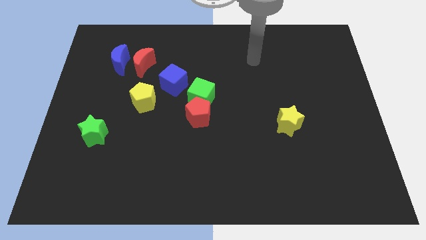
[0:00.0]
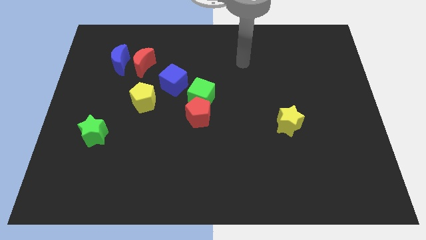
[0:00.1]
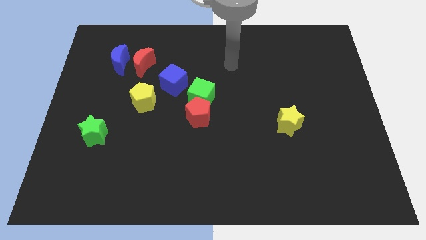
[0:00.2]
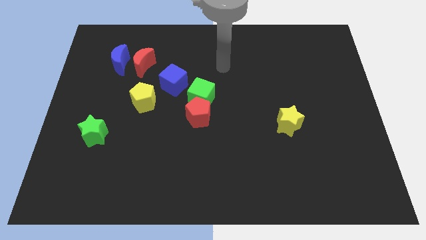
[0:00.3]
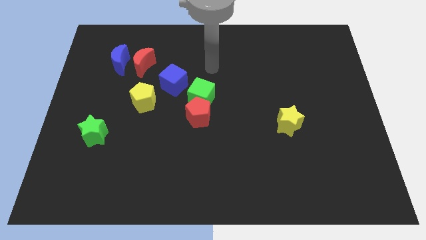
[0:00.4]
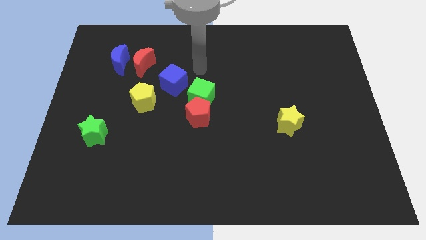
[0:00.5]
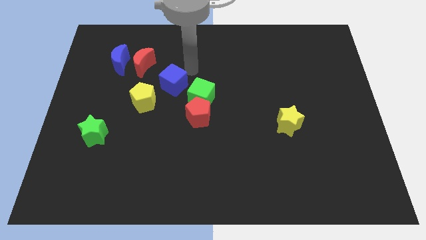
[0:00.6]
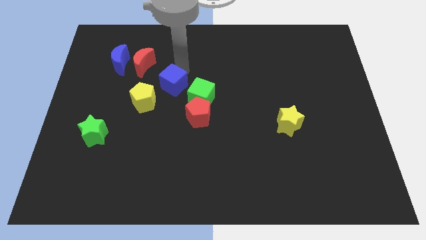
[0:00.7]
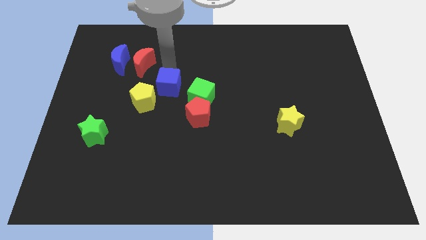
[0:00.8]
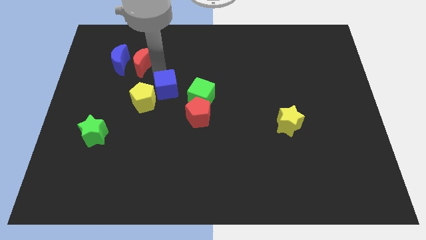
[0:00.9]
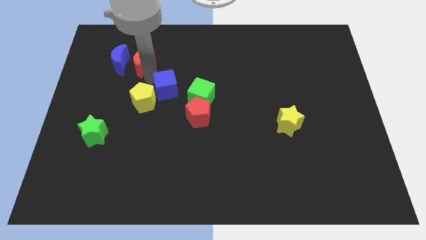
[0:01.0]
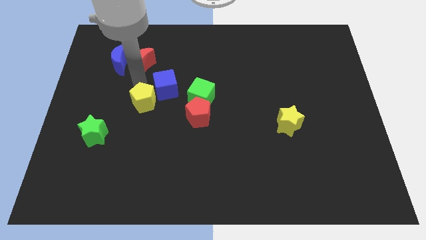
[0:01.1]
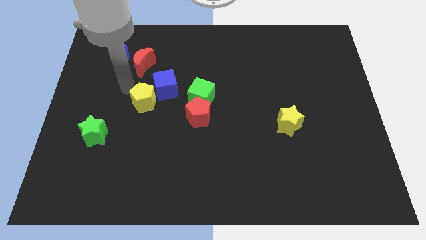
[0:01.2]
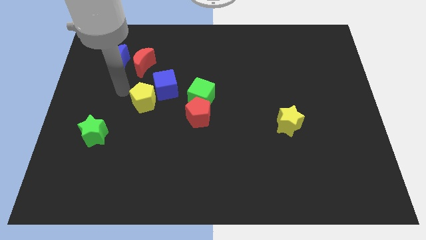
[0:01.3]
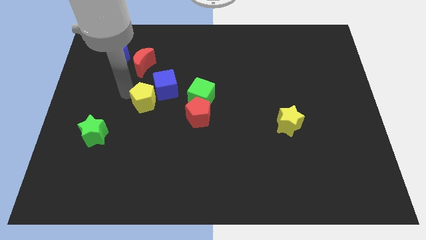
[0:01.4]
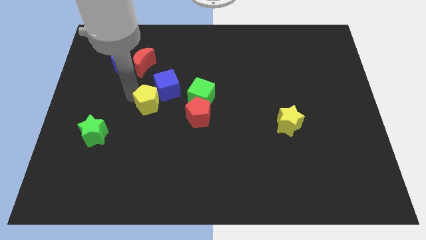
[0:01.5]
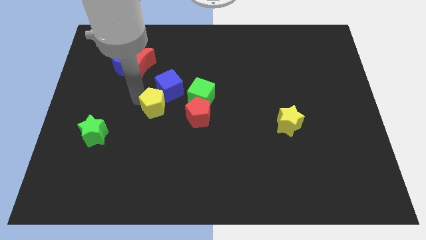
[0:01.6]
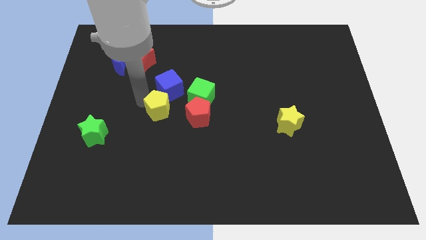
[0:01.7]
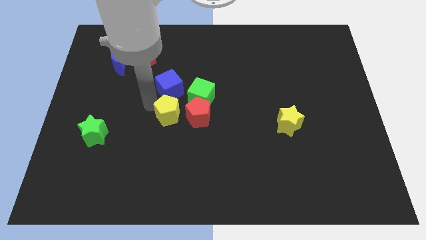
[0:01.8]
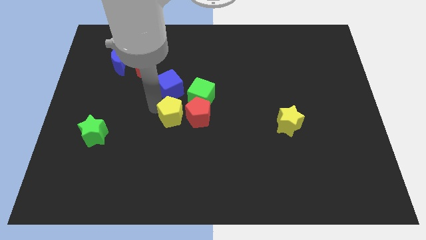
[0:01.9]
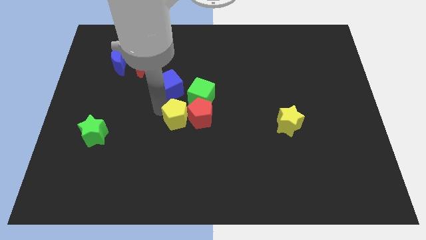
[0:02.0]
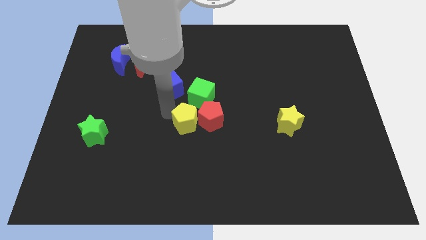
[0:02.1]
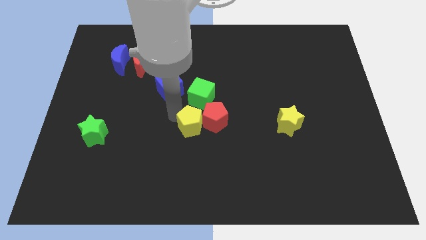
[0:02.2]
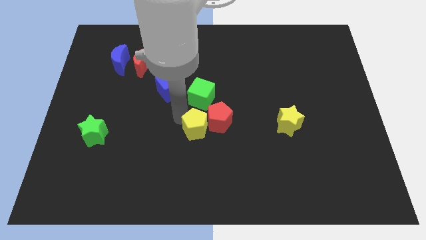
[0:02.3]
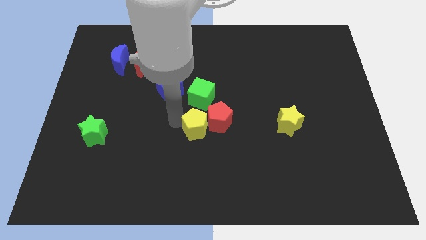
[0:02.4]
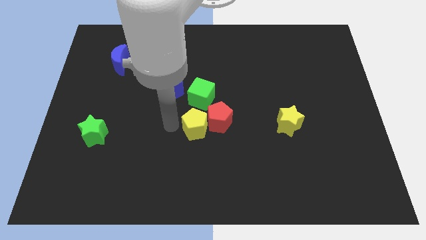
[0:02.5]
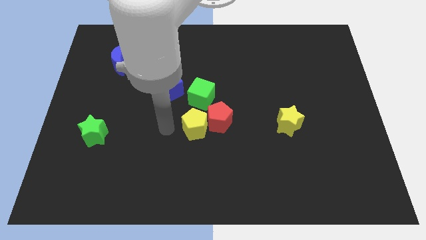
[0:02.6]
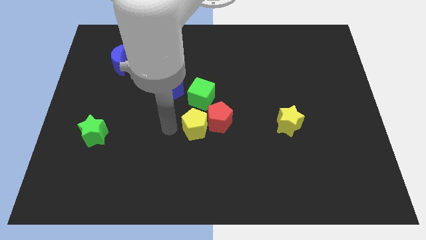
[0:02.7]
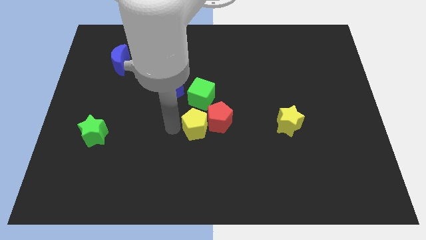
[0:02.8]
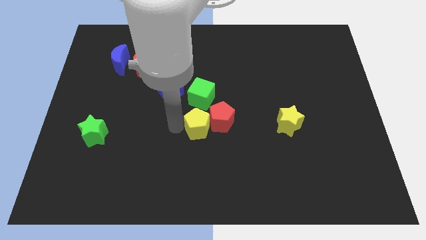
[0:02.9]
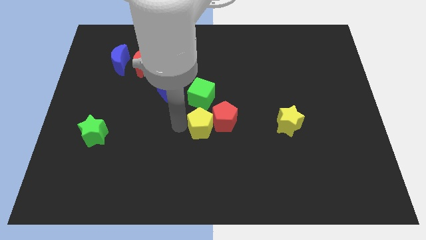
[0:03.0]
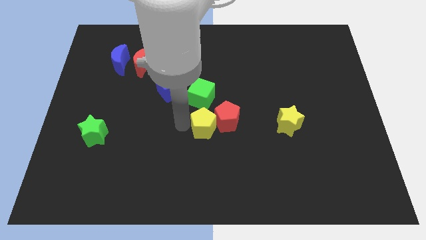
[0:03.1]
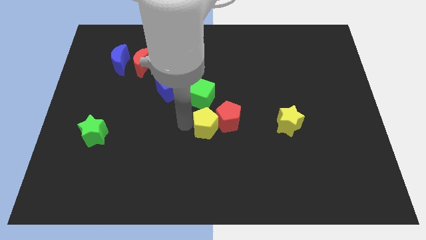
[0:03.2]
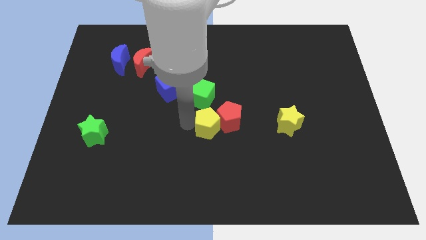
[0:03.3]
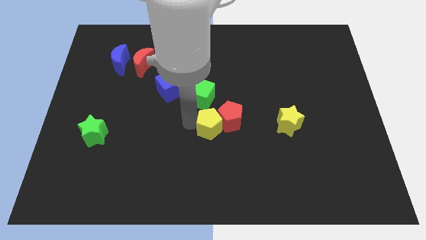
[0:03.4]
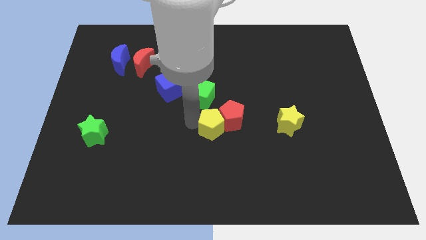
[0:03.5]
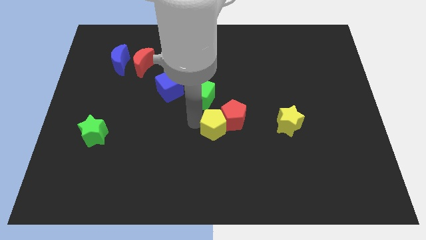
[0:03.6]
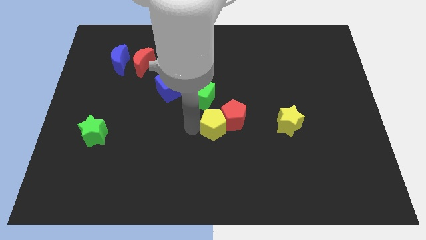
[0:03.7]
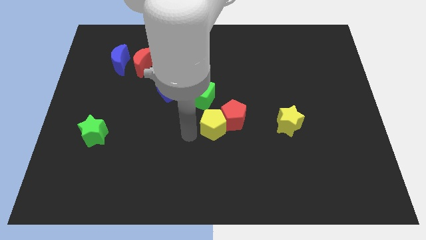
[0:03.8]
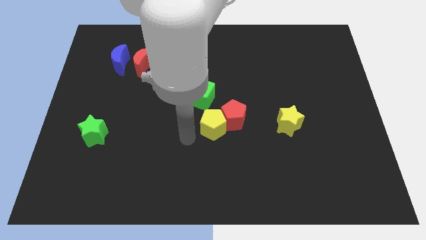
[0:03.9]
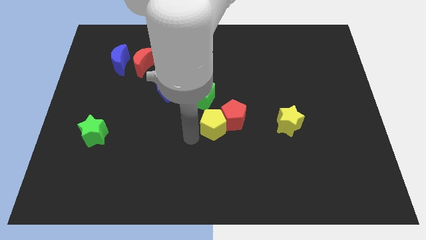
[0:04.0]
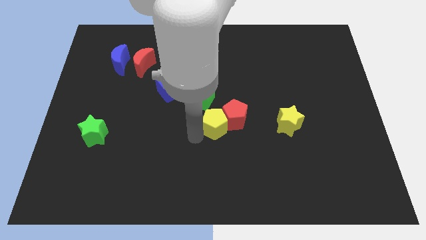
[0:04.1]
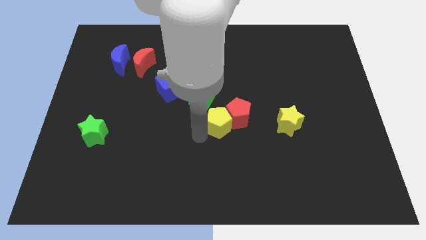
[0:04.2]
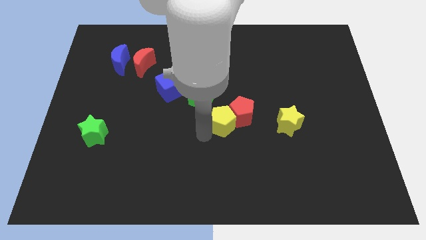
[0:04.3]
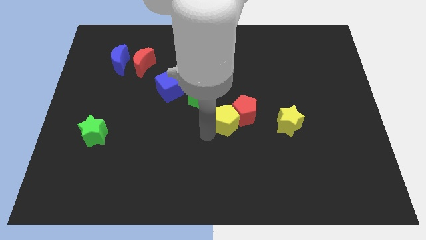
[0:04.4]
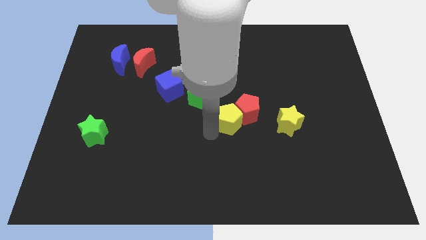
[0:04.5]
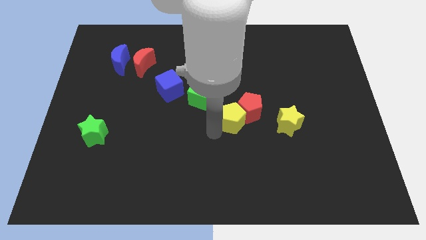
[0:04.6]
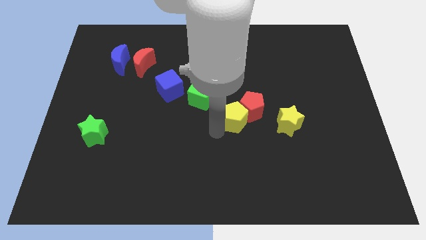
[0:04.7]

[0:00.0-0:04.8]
move the yellow pentagon to the right

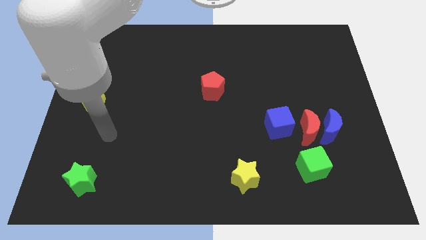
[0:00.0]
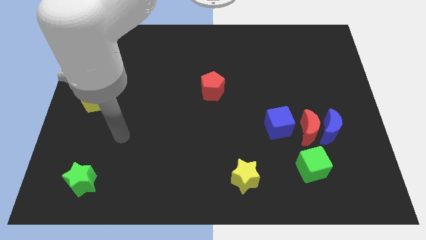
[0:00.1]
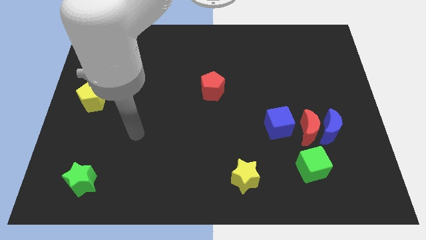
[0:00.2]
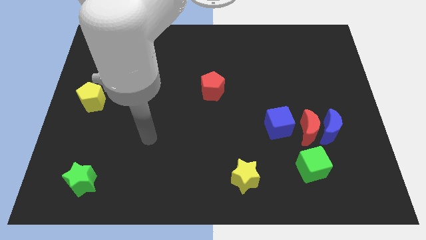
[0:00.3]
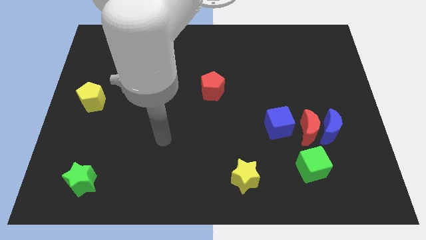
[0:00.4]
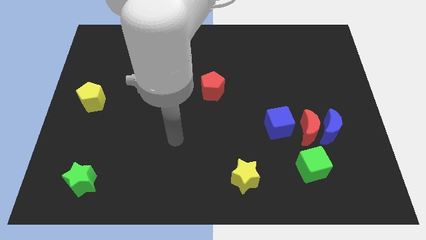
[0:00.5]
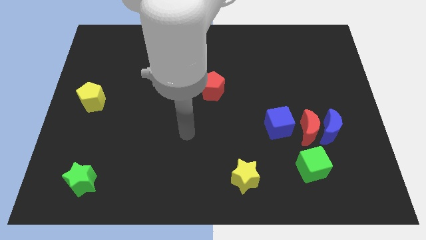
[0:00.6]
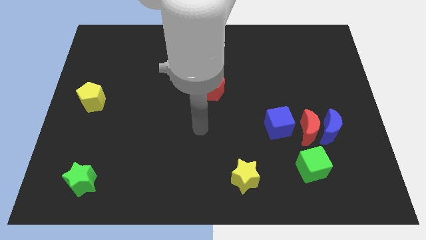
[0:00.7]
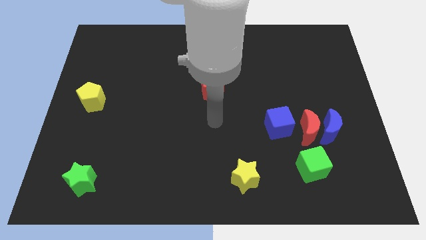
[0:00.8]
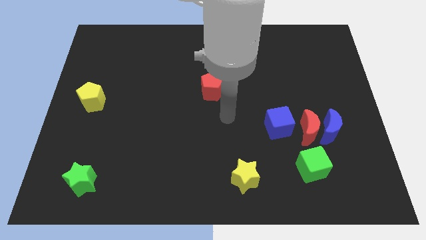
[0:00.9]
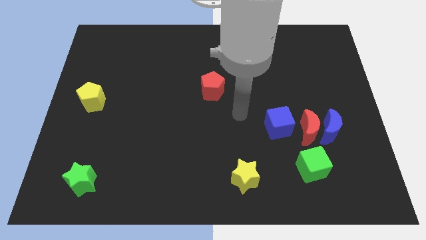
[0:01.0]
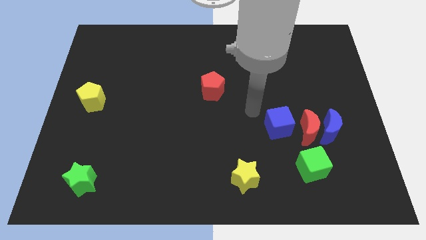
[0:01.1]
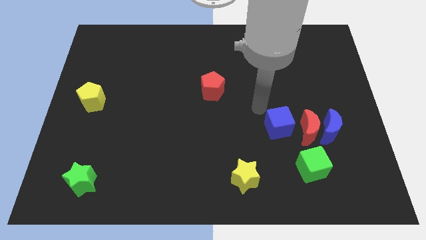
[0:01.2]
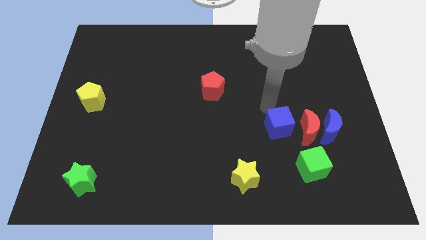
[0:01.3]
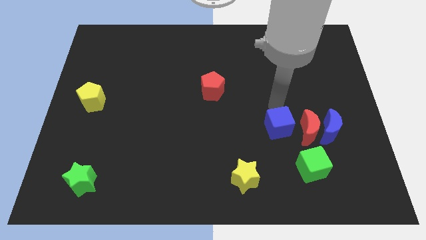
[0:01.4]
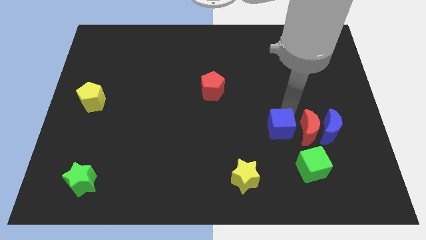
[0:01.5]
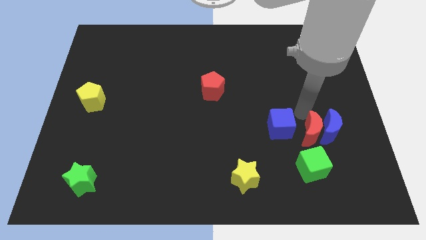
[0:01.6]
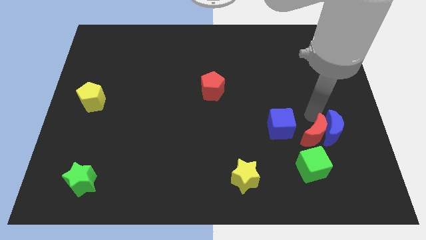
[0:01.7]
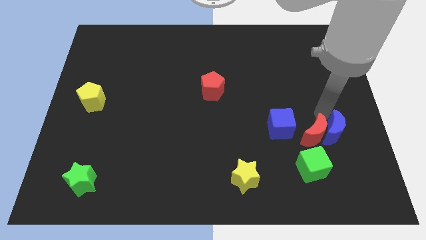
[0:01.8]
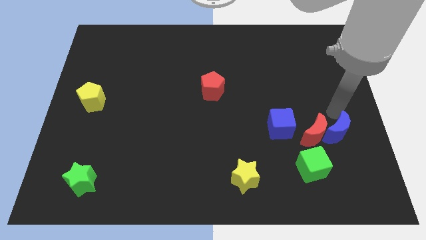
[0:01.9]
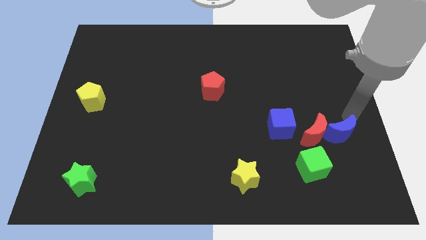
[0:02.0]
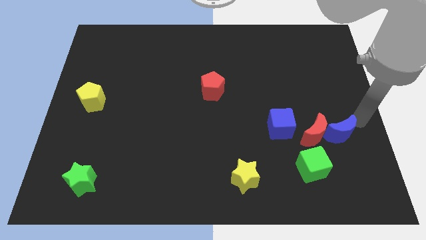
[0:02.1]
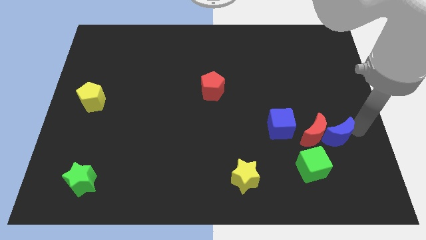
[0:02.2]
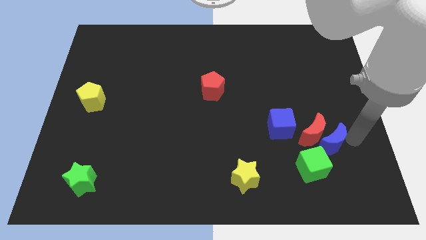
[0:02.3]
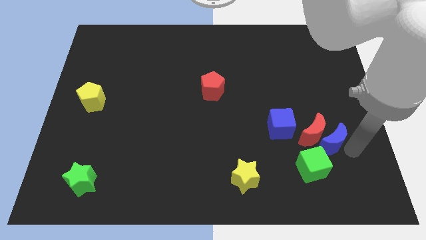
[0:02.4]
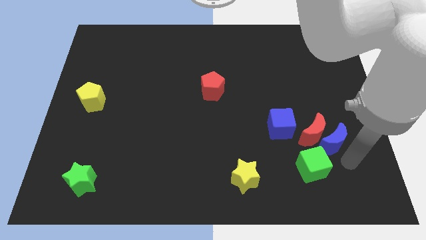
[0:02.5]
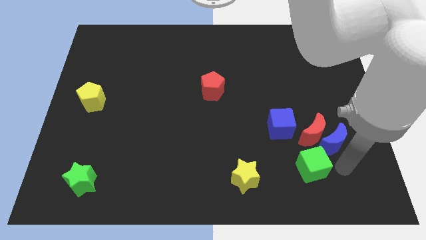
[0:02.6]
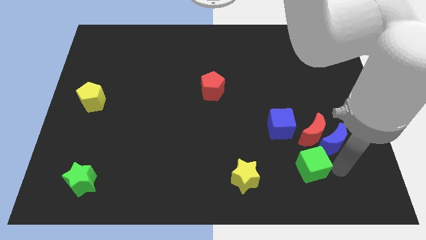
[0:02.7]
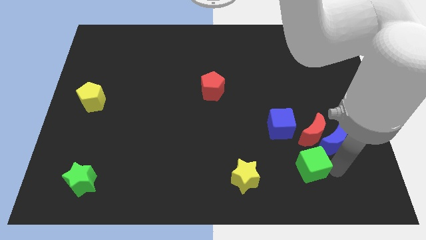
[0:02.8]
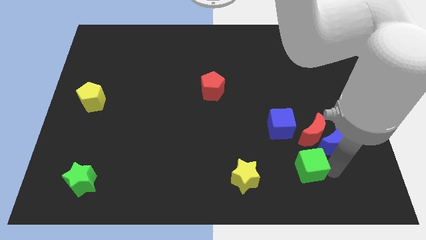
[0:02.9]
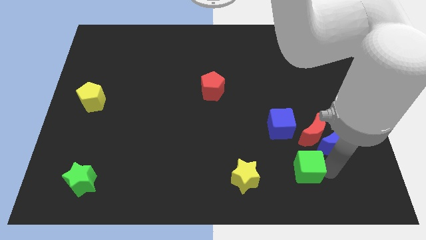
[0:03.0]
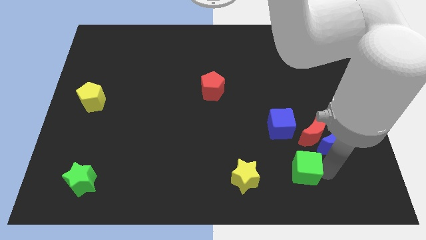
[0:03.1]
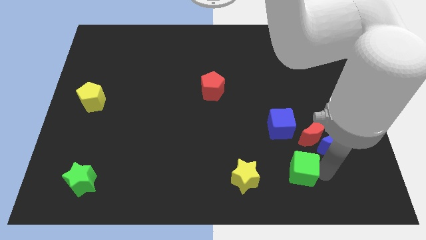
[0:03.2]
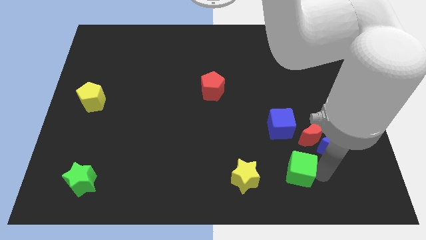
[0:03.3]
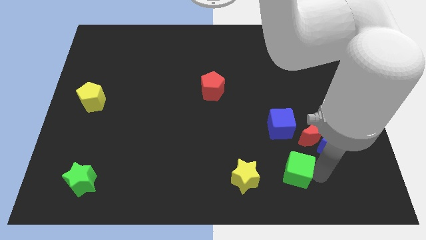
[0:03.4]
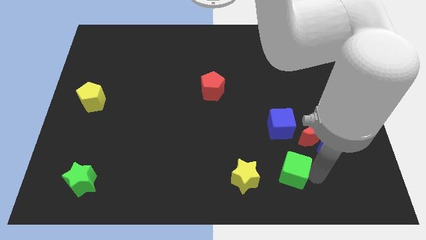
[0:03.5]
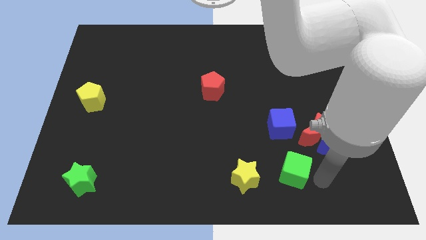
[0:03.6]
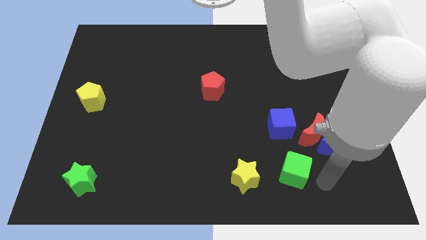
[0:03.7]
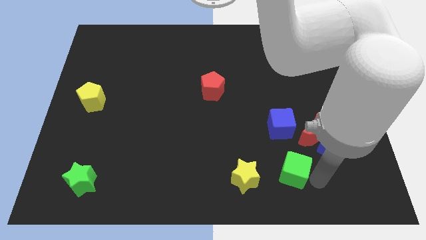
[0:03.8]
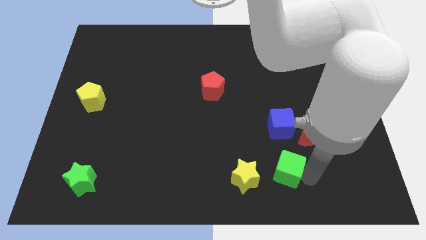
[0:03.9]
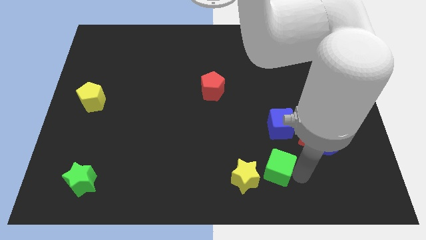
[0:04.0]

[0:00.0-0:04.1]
slightly move the green cube to the left
